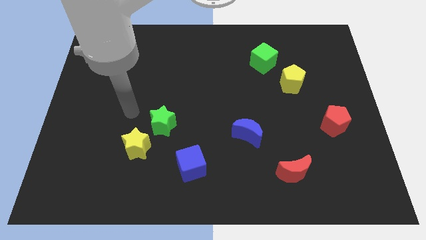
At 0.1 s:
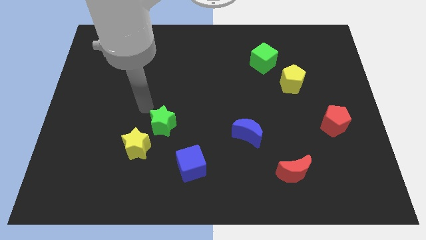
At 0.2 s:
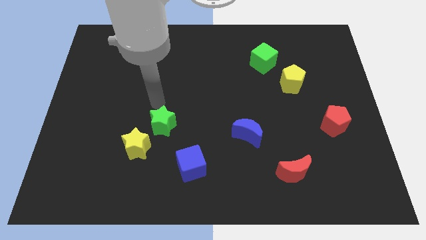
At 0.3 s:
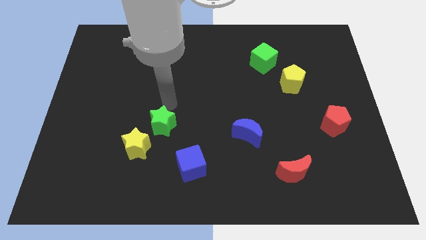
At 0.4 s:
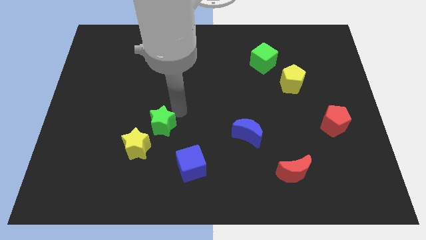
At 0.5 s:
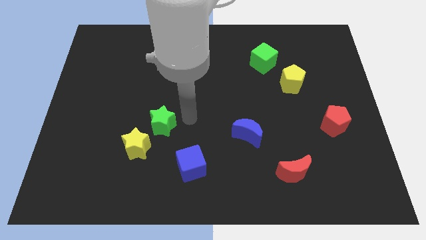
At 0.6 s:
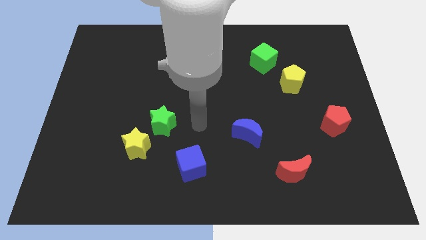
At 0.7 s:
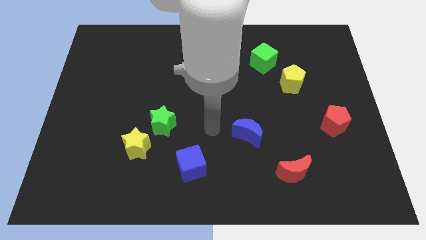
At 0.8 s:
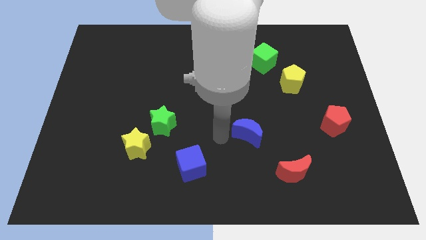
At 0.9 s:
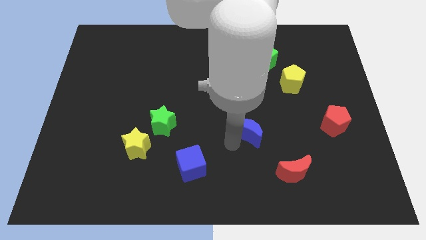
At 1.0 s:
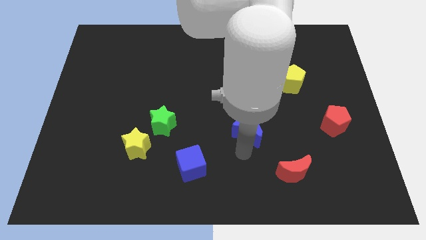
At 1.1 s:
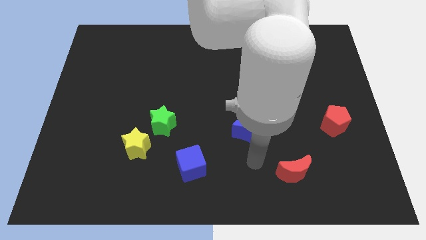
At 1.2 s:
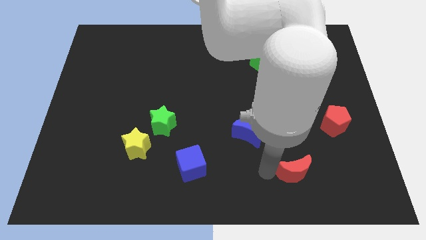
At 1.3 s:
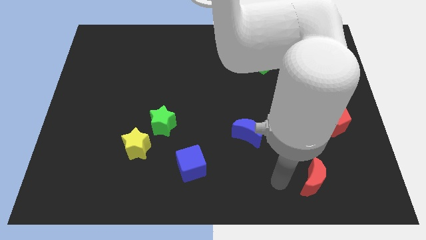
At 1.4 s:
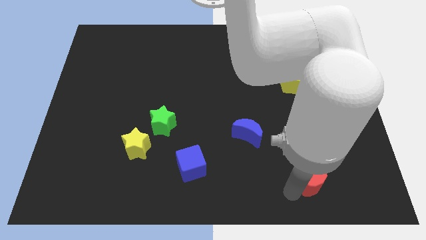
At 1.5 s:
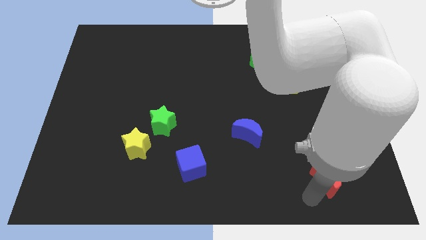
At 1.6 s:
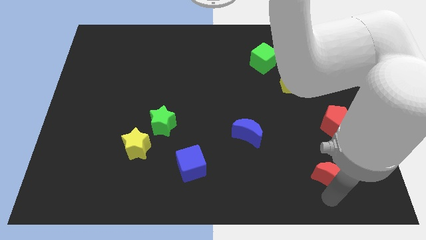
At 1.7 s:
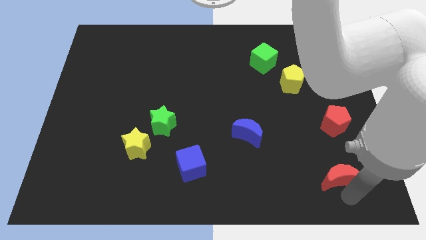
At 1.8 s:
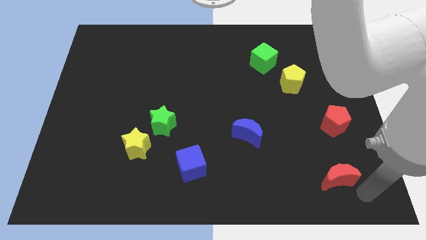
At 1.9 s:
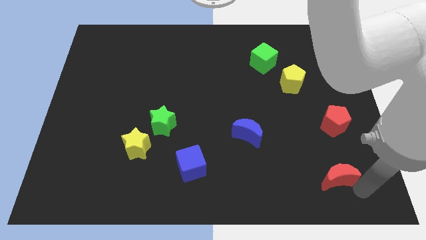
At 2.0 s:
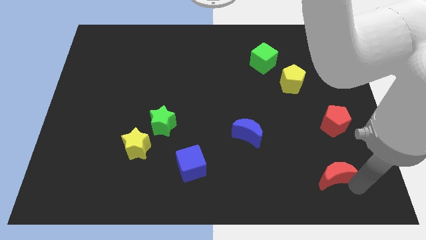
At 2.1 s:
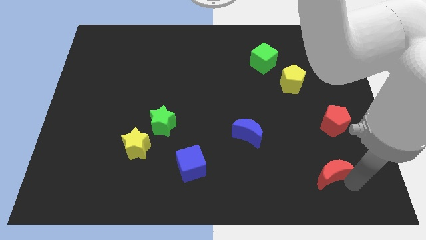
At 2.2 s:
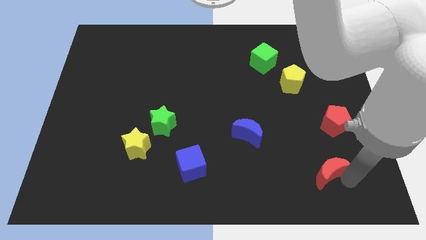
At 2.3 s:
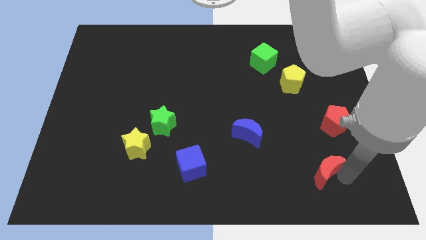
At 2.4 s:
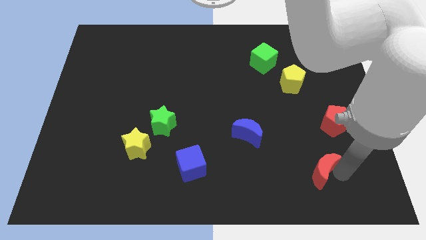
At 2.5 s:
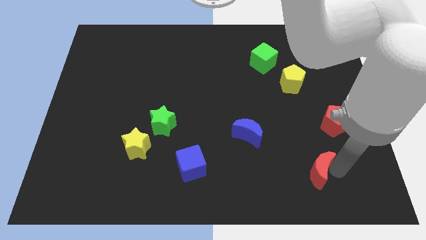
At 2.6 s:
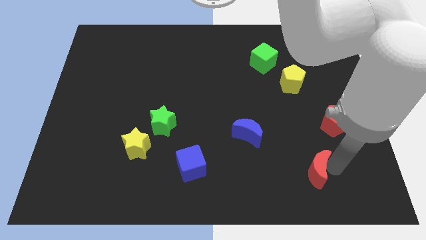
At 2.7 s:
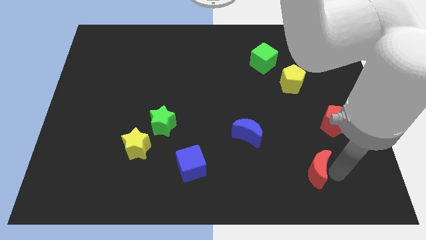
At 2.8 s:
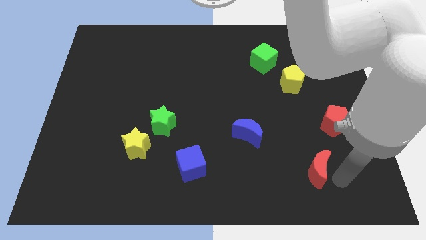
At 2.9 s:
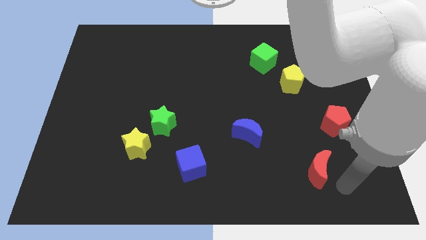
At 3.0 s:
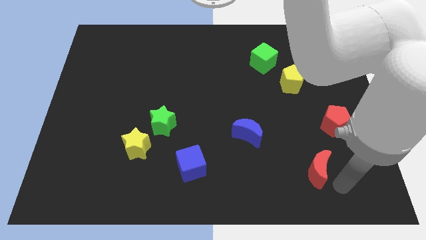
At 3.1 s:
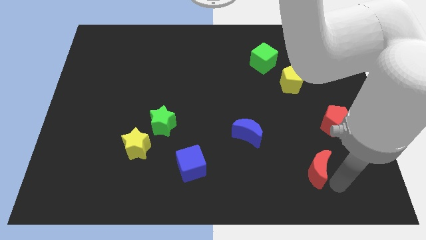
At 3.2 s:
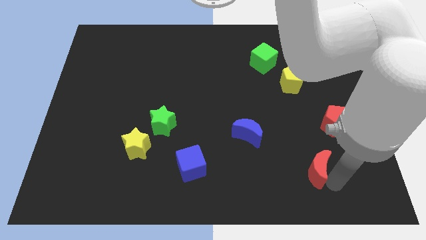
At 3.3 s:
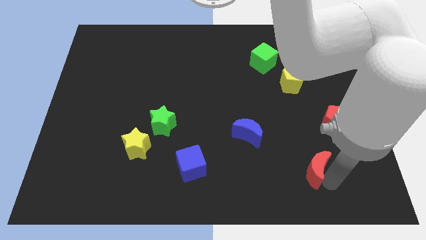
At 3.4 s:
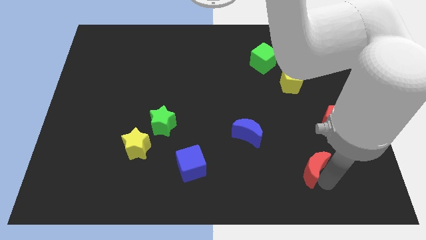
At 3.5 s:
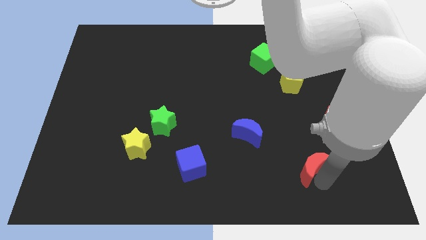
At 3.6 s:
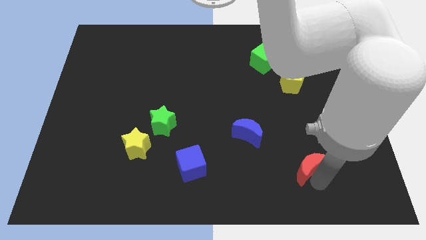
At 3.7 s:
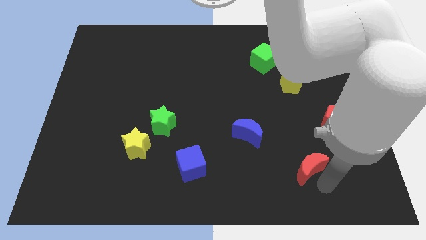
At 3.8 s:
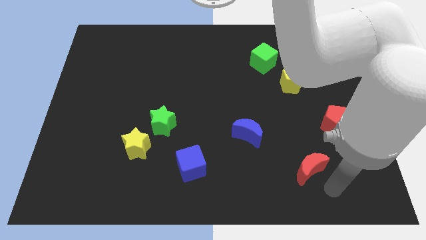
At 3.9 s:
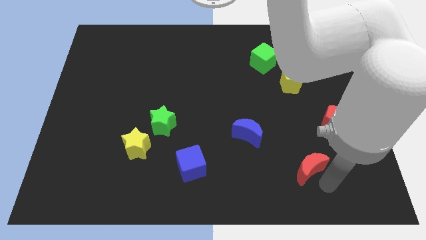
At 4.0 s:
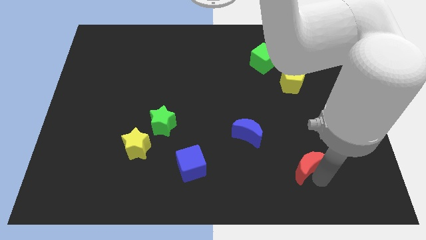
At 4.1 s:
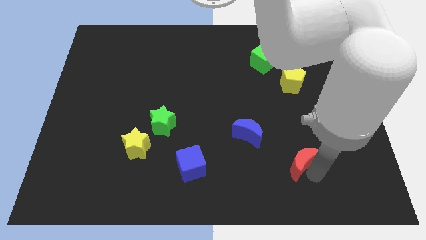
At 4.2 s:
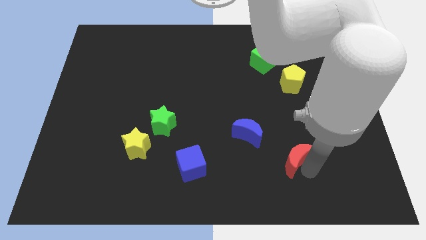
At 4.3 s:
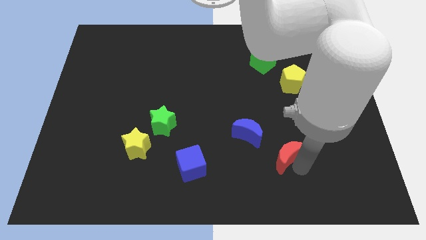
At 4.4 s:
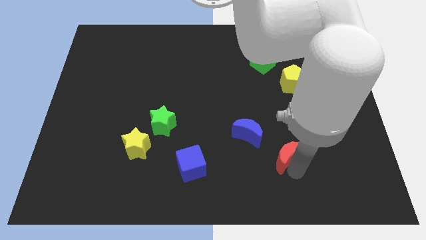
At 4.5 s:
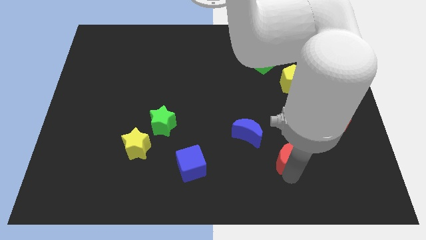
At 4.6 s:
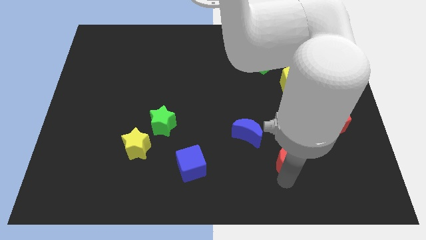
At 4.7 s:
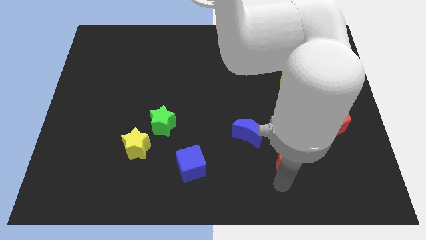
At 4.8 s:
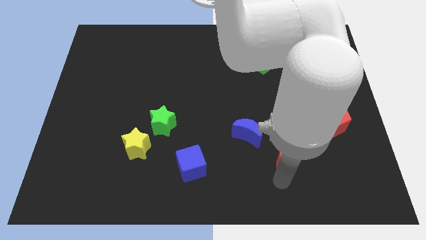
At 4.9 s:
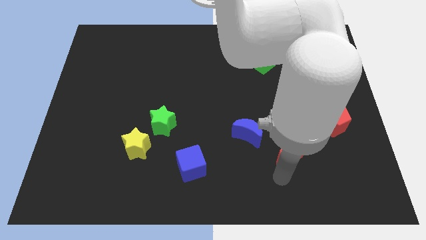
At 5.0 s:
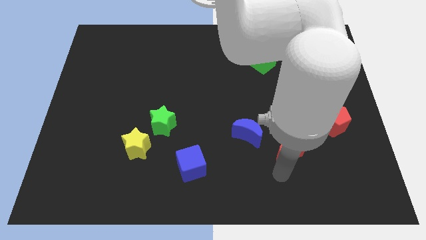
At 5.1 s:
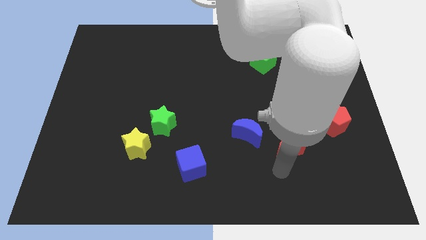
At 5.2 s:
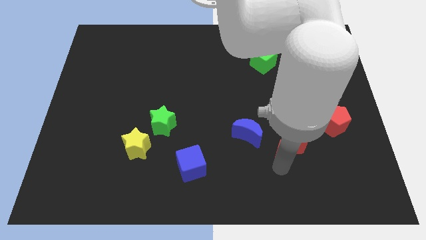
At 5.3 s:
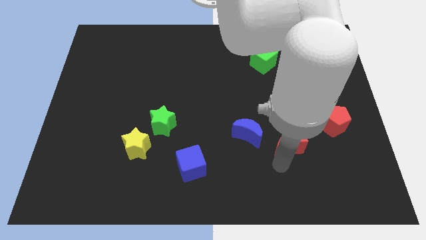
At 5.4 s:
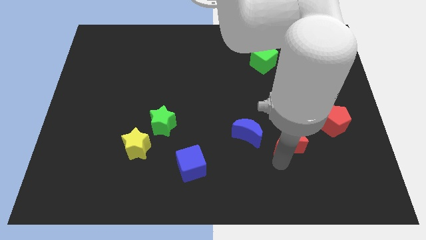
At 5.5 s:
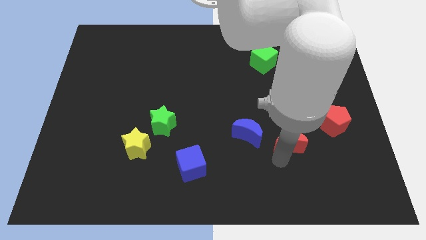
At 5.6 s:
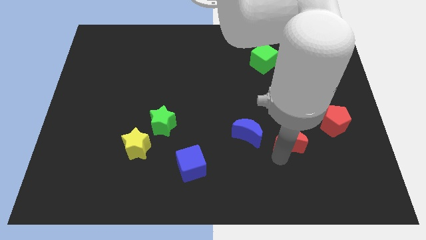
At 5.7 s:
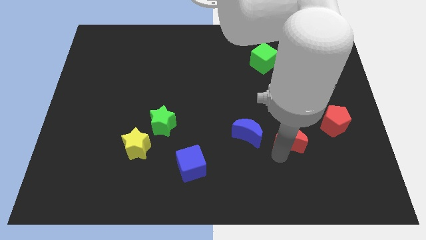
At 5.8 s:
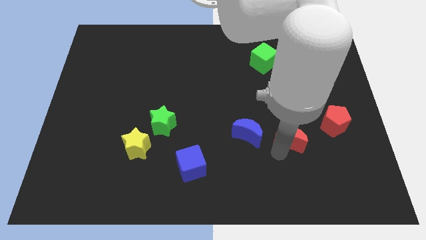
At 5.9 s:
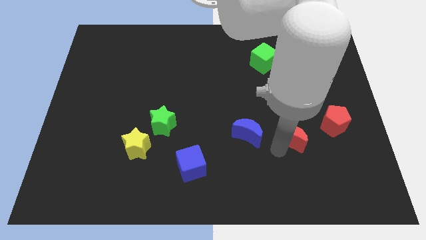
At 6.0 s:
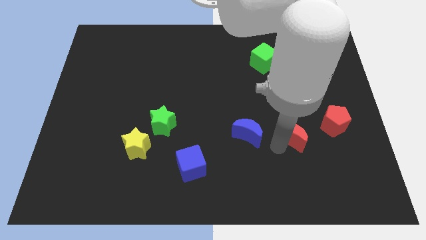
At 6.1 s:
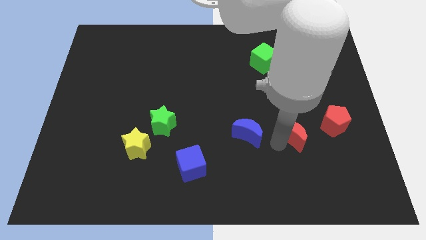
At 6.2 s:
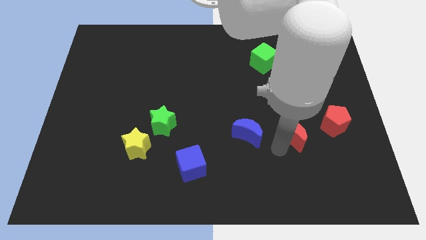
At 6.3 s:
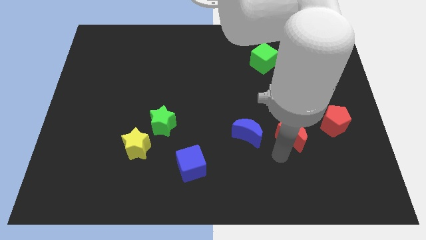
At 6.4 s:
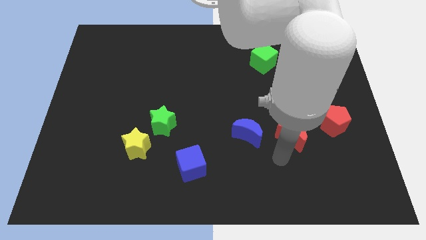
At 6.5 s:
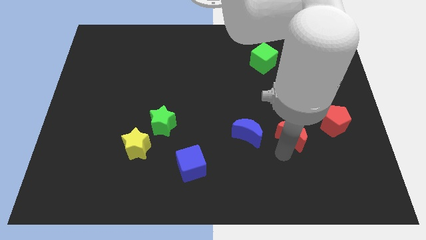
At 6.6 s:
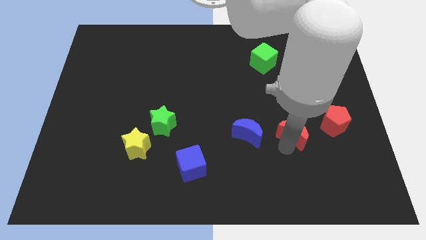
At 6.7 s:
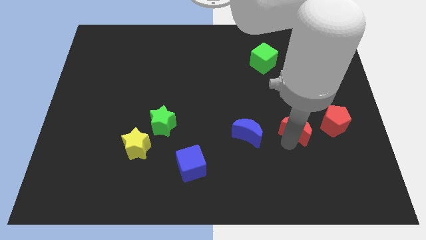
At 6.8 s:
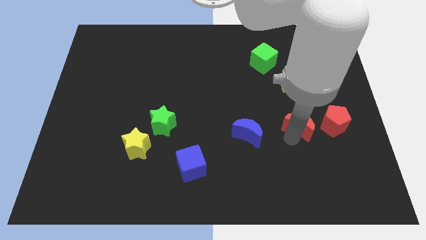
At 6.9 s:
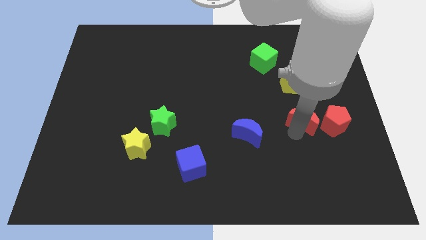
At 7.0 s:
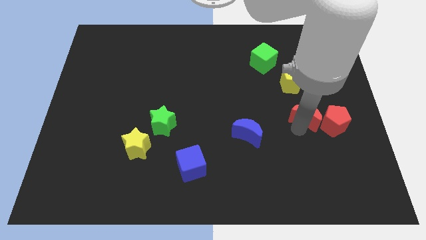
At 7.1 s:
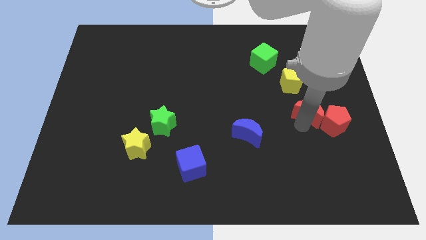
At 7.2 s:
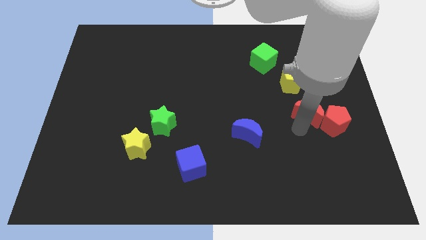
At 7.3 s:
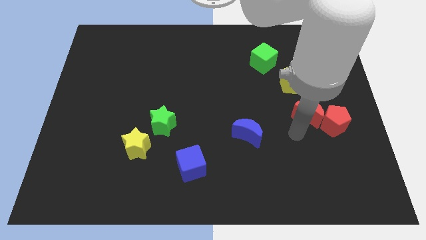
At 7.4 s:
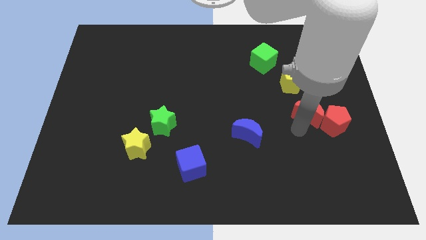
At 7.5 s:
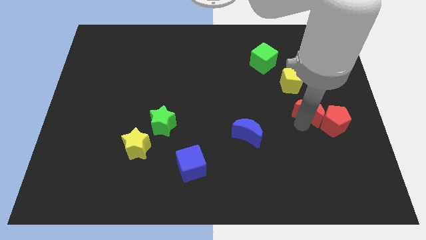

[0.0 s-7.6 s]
push the red moon to the bottom right side of the yellow pentagon

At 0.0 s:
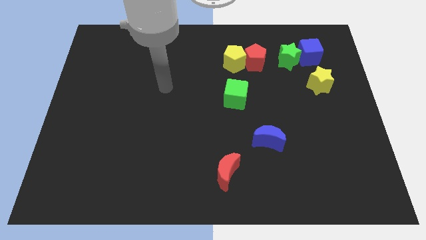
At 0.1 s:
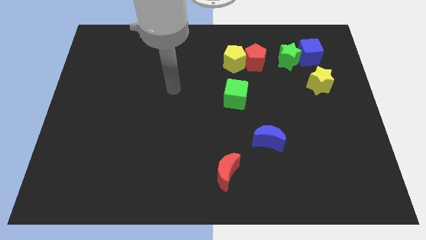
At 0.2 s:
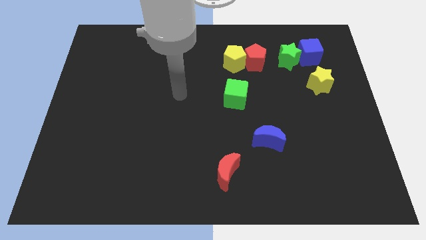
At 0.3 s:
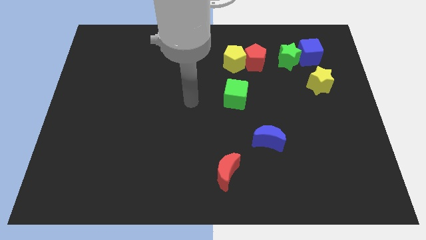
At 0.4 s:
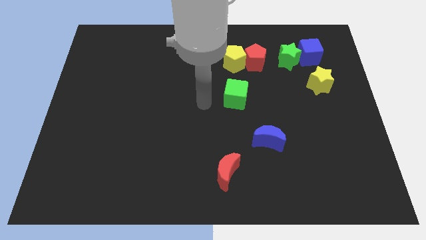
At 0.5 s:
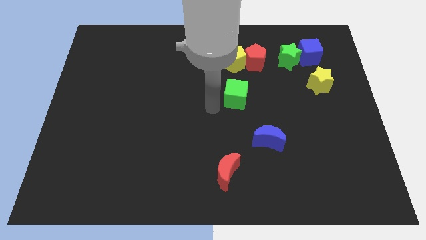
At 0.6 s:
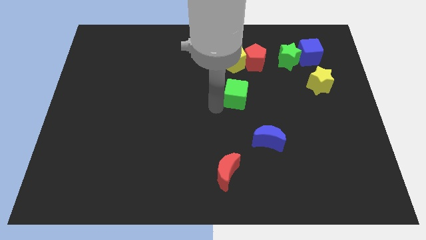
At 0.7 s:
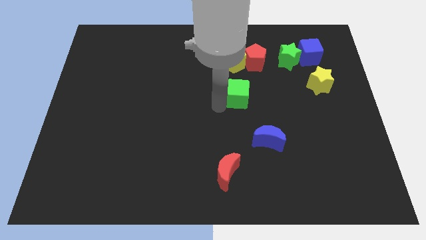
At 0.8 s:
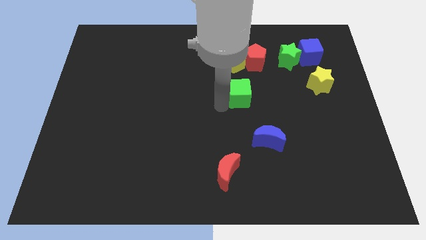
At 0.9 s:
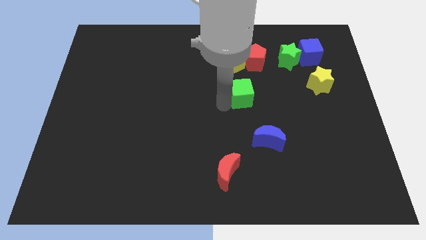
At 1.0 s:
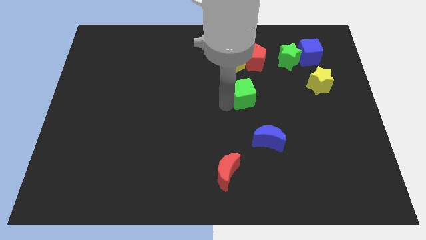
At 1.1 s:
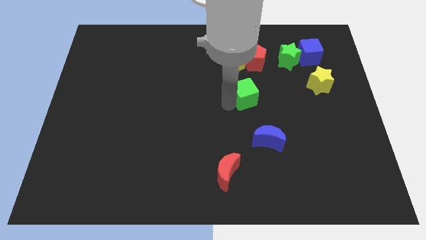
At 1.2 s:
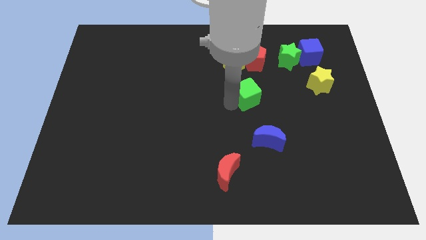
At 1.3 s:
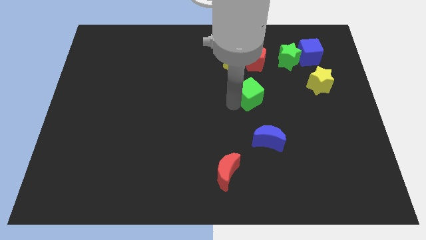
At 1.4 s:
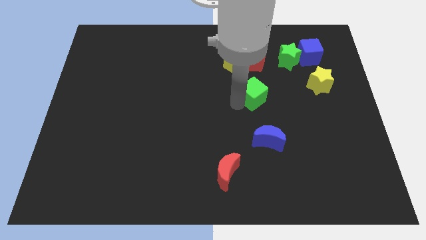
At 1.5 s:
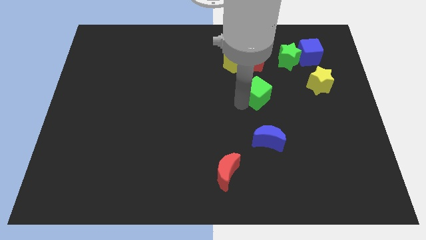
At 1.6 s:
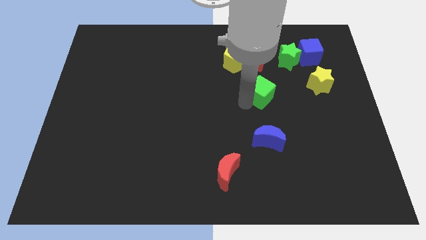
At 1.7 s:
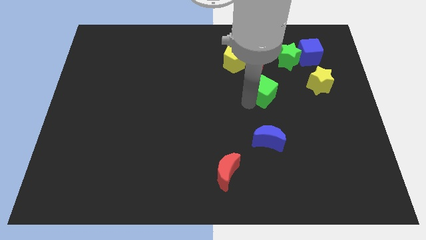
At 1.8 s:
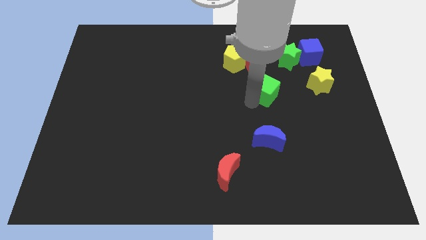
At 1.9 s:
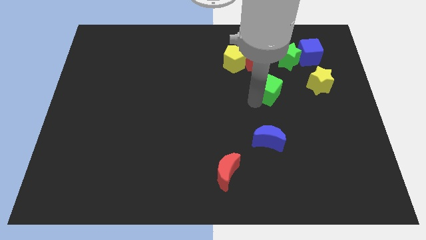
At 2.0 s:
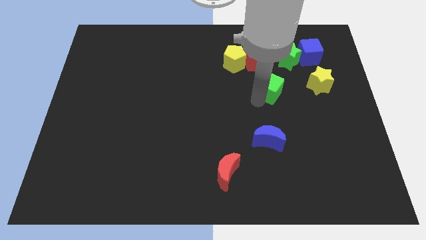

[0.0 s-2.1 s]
slide the green cube diagonally down and to the left of the green star
